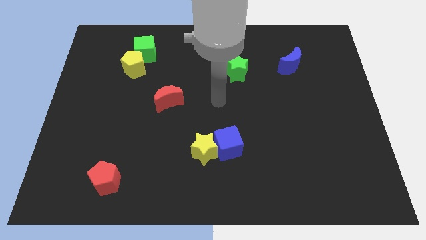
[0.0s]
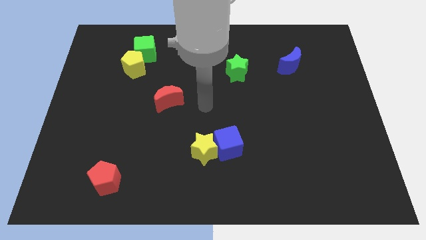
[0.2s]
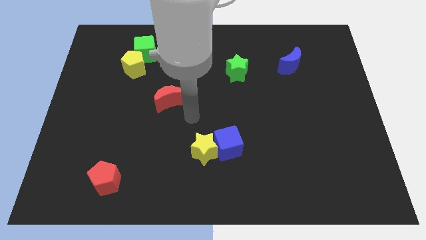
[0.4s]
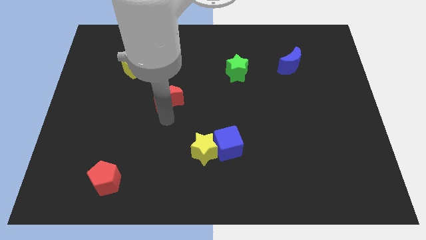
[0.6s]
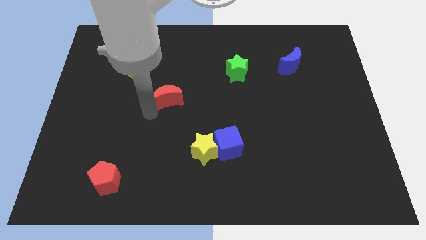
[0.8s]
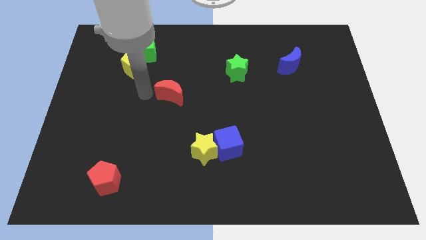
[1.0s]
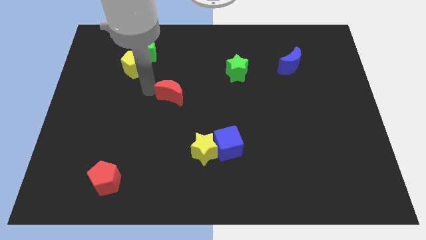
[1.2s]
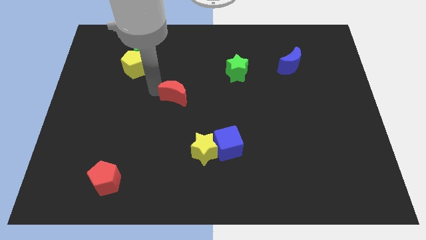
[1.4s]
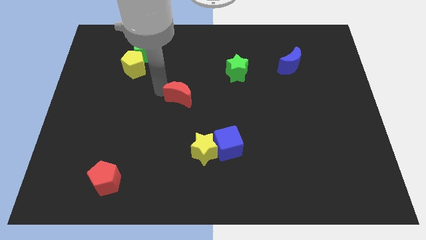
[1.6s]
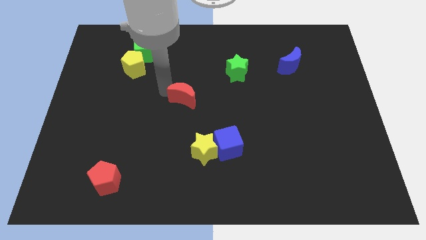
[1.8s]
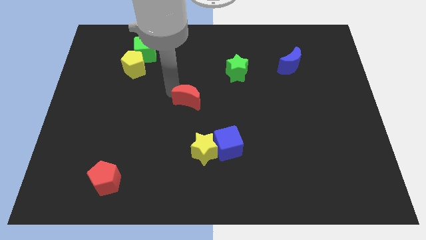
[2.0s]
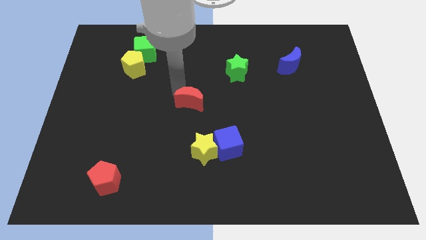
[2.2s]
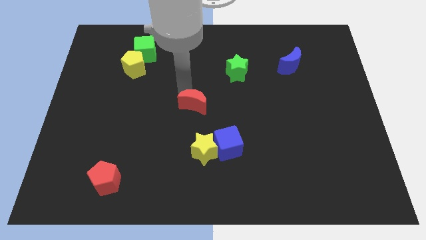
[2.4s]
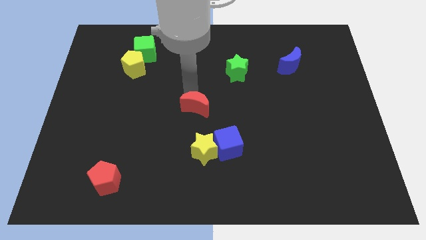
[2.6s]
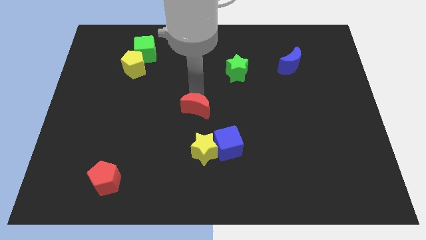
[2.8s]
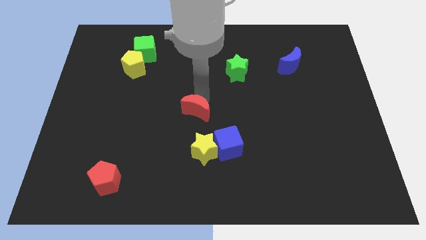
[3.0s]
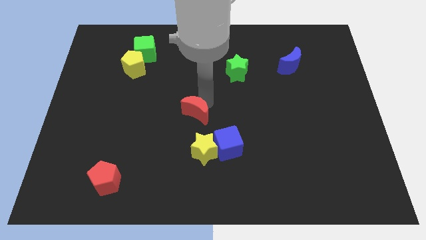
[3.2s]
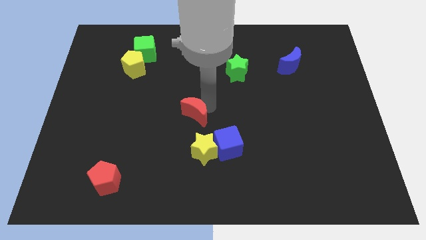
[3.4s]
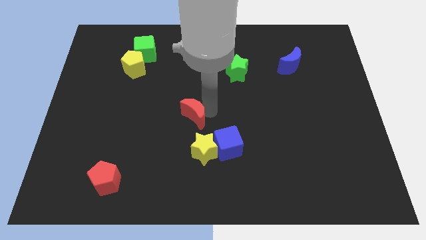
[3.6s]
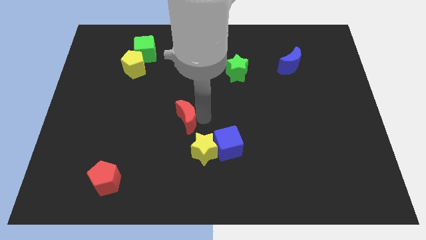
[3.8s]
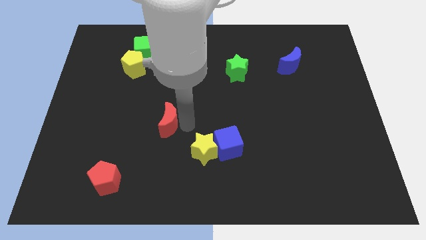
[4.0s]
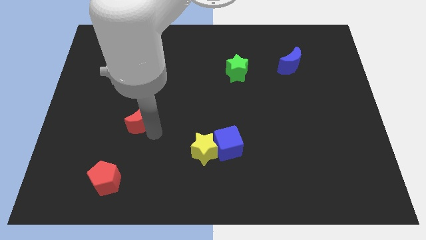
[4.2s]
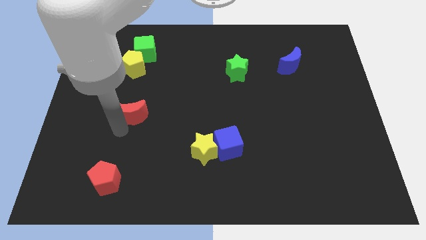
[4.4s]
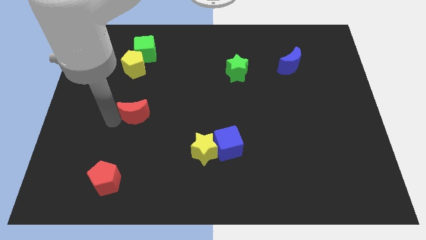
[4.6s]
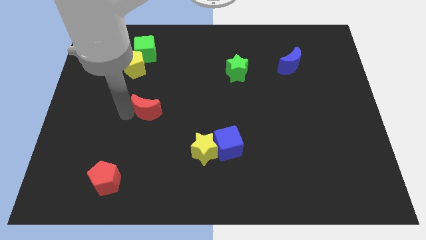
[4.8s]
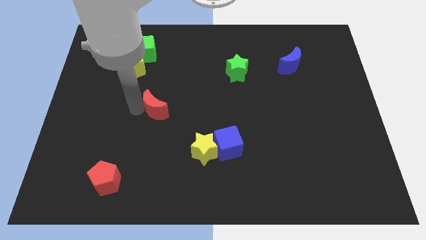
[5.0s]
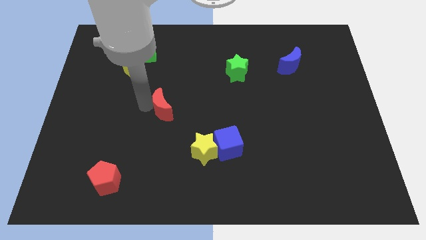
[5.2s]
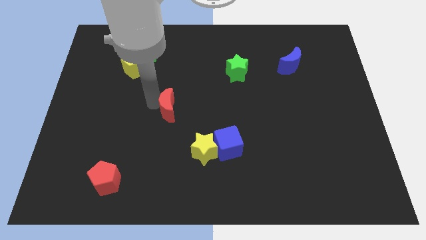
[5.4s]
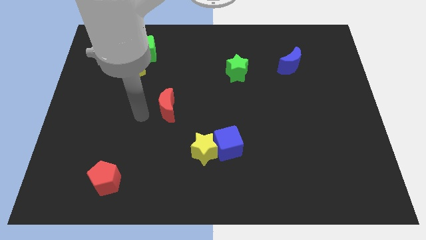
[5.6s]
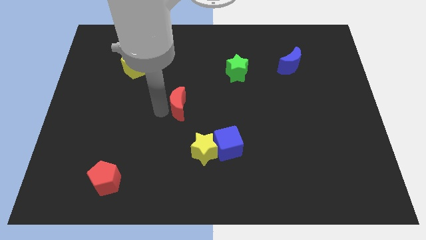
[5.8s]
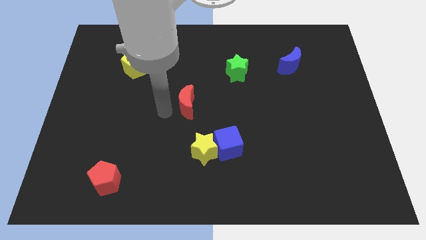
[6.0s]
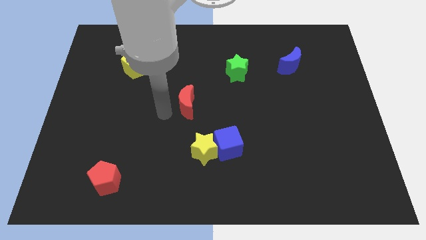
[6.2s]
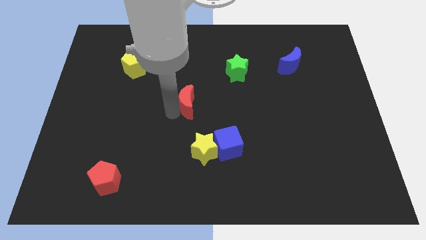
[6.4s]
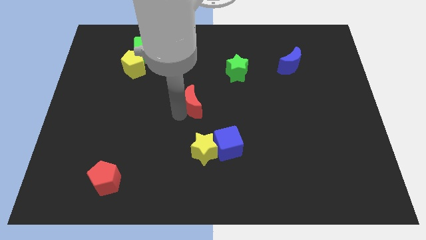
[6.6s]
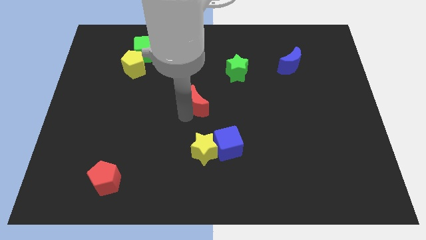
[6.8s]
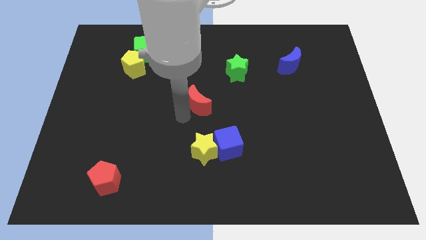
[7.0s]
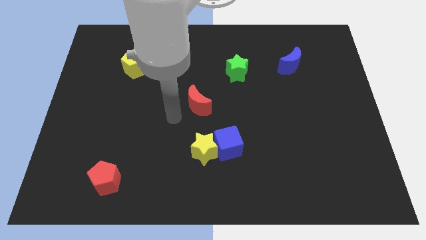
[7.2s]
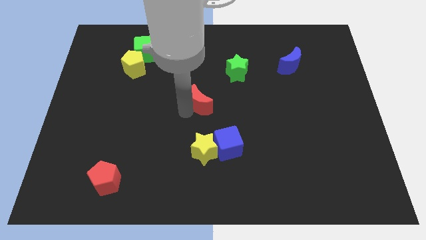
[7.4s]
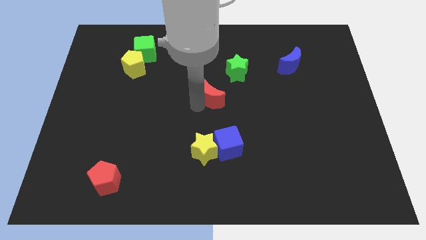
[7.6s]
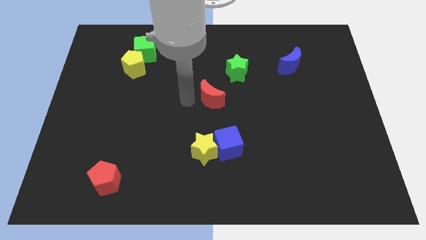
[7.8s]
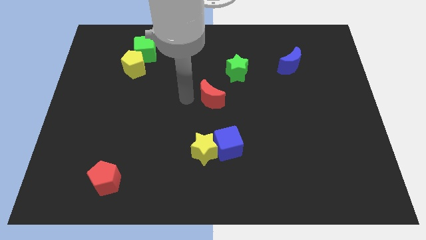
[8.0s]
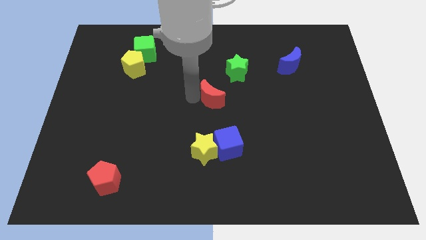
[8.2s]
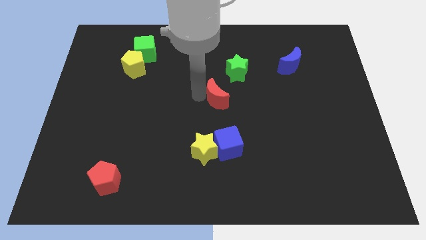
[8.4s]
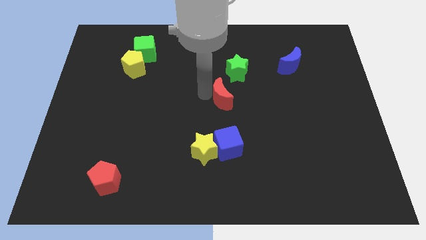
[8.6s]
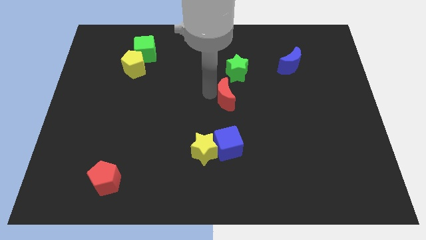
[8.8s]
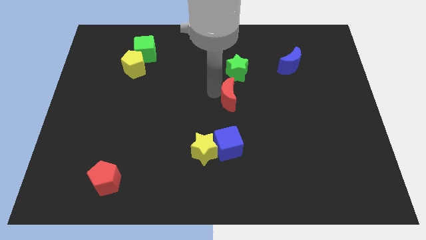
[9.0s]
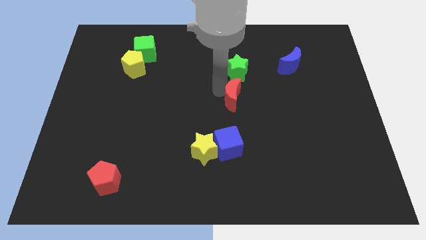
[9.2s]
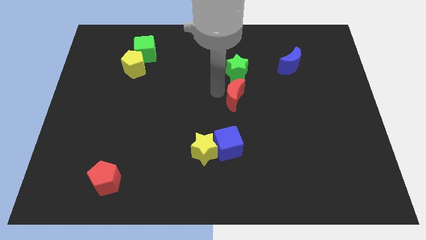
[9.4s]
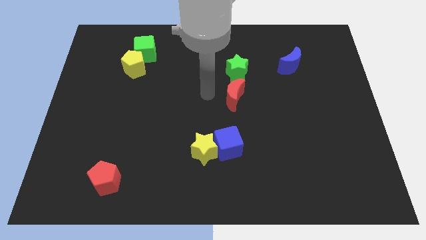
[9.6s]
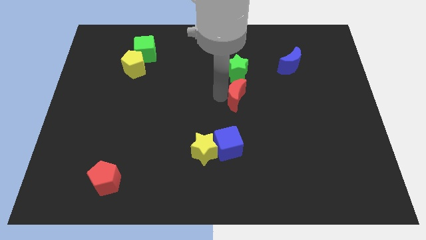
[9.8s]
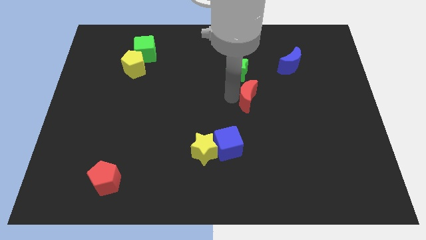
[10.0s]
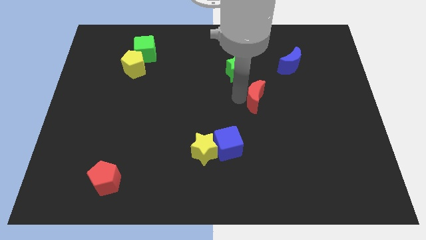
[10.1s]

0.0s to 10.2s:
push the red moon right

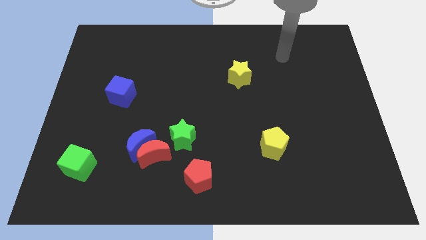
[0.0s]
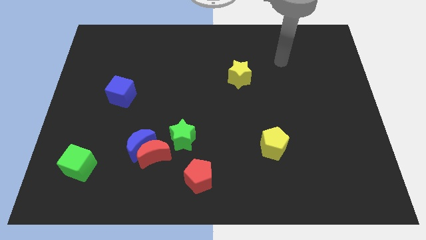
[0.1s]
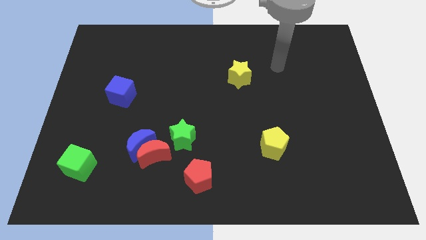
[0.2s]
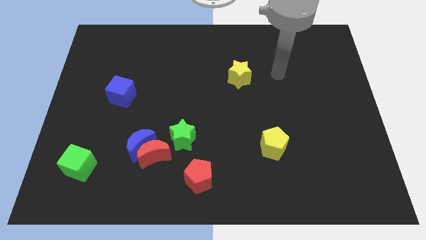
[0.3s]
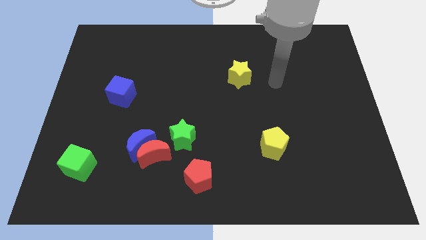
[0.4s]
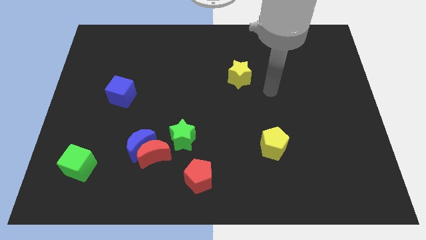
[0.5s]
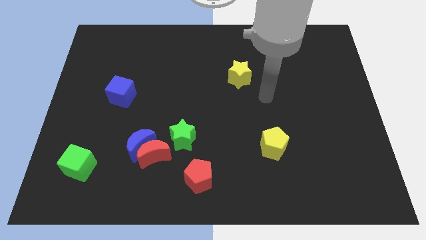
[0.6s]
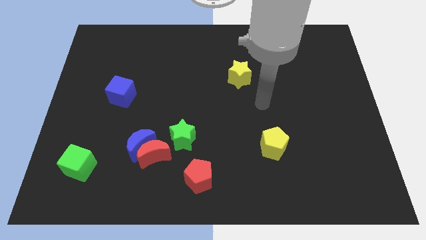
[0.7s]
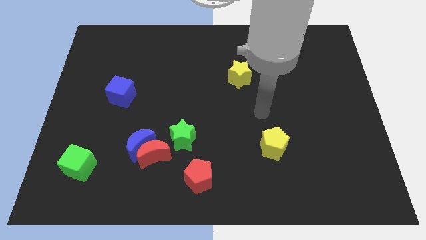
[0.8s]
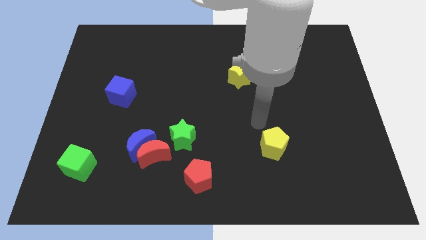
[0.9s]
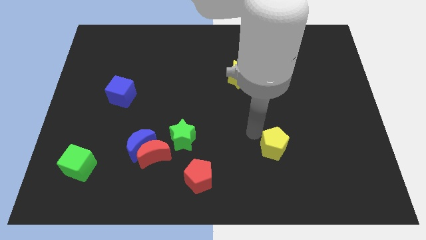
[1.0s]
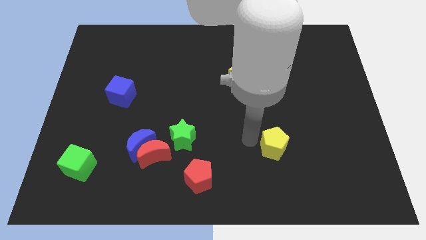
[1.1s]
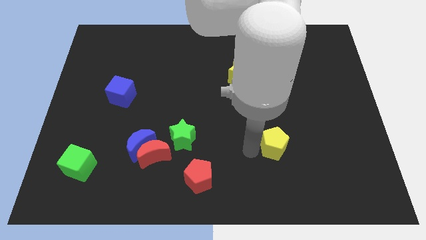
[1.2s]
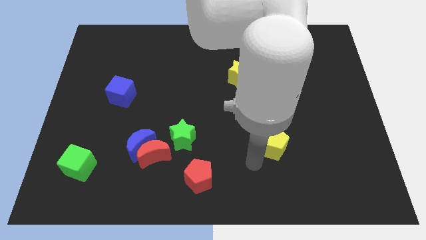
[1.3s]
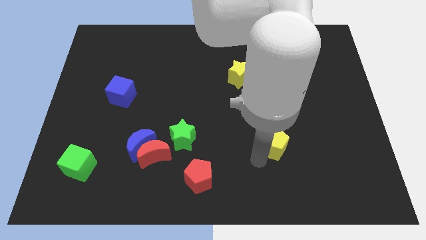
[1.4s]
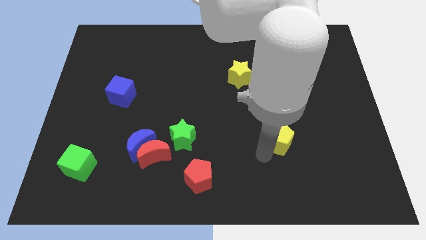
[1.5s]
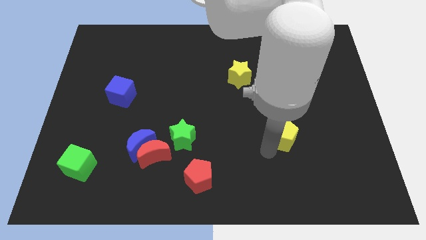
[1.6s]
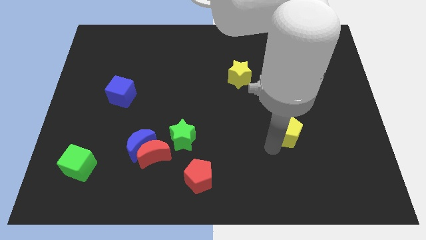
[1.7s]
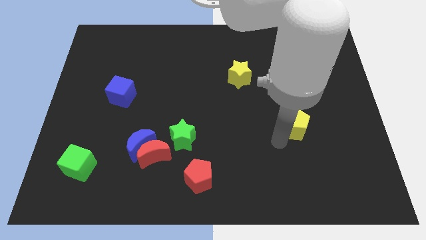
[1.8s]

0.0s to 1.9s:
move the yellow pentagon diagonally upwards and right somewhat

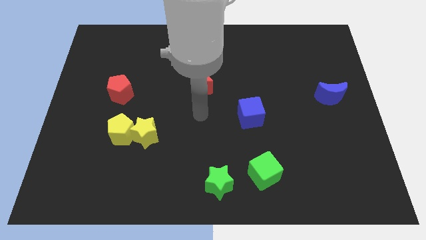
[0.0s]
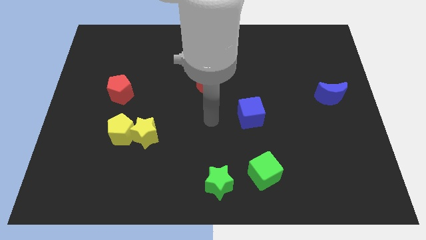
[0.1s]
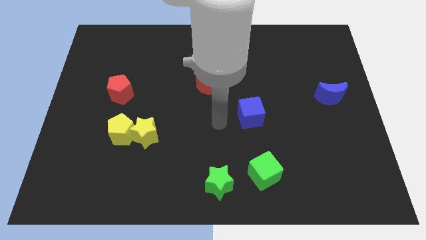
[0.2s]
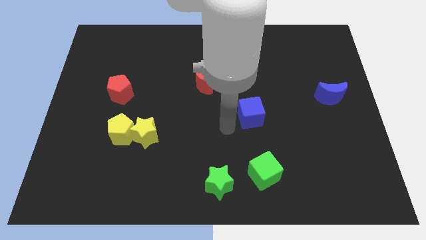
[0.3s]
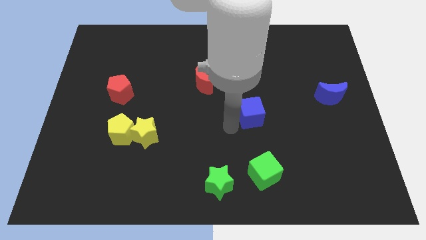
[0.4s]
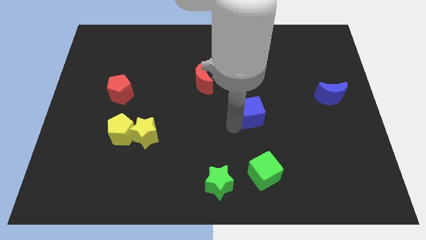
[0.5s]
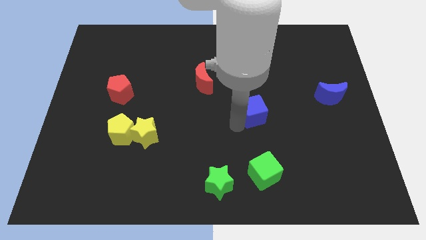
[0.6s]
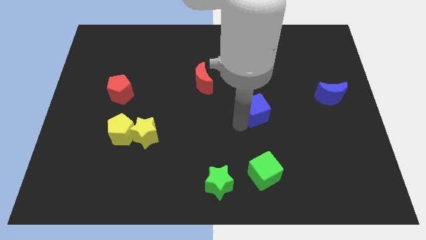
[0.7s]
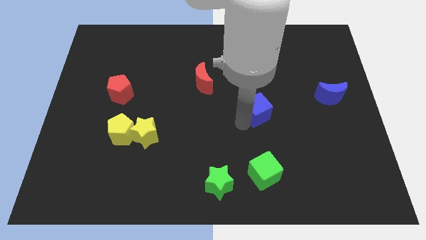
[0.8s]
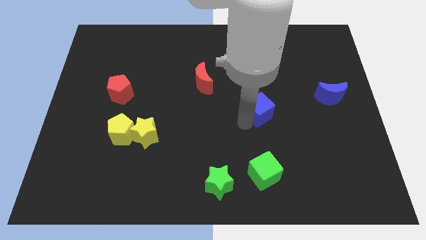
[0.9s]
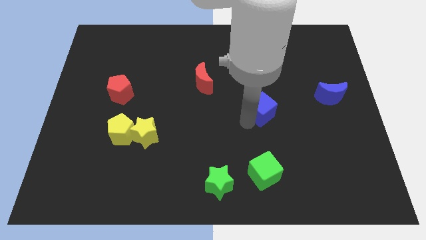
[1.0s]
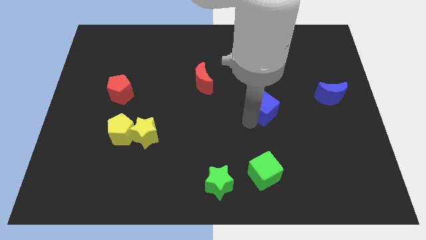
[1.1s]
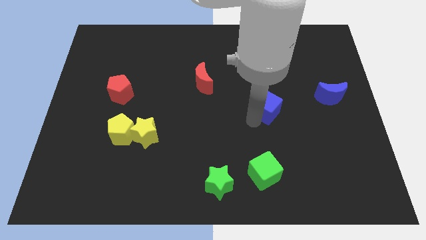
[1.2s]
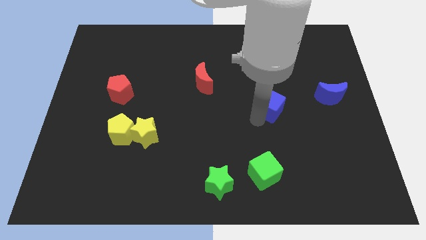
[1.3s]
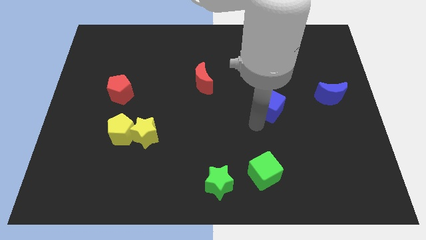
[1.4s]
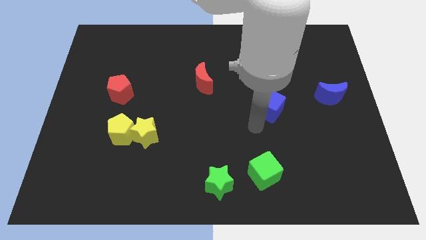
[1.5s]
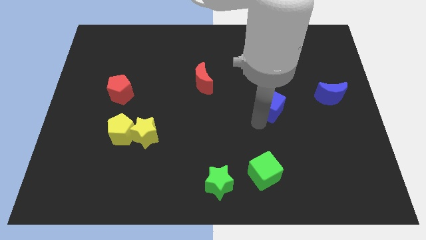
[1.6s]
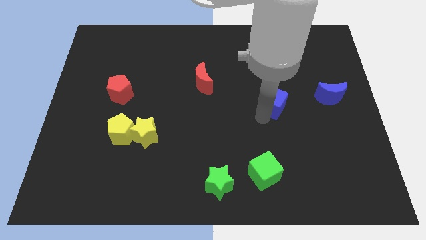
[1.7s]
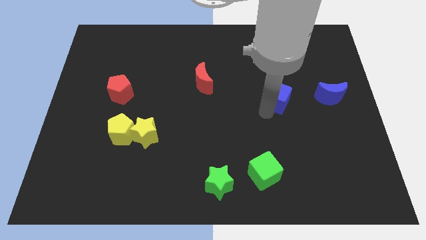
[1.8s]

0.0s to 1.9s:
slightly slide the blue cube up and right
